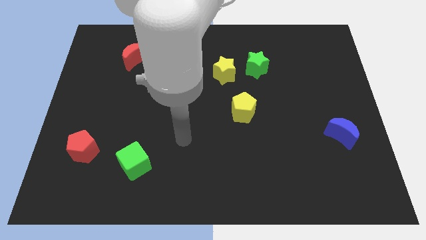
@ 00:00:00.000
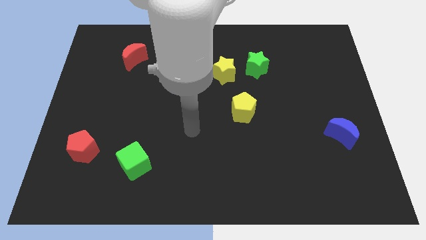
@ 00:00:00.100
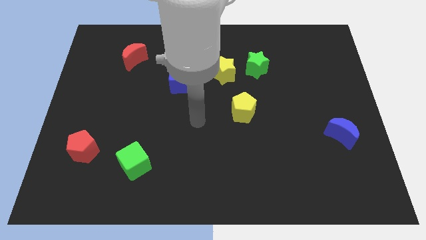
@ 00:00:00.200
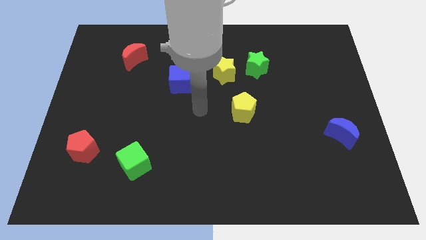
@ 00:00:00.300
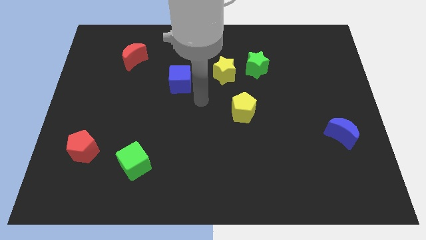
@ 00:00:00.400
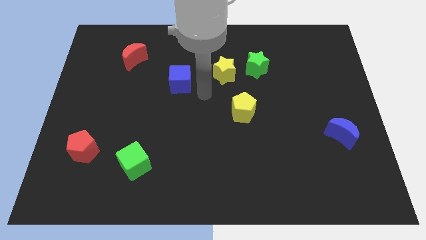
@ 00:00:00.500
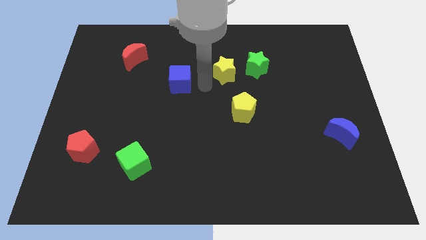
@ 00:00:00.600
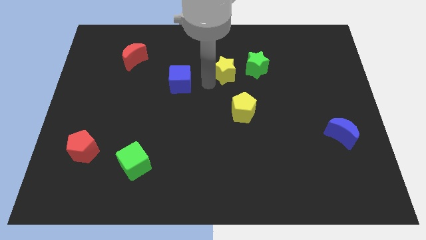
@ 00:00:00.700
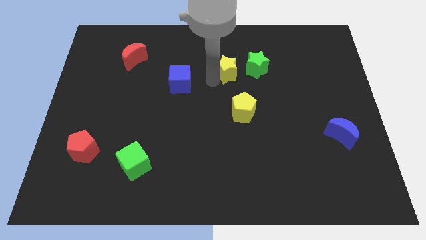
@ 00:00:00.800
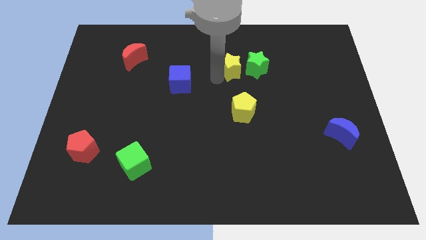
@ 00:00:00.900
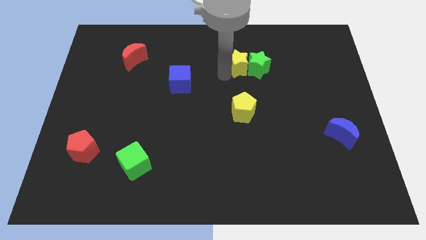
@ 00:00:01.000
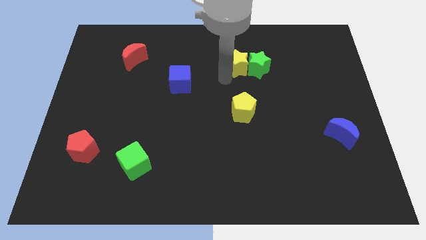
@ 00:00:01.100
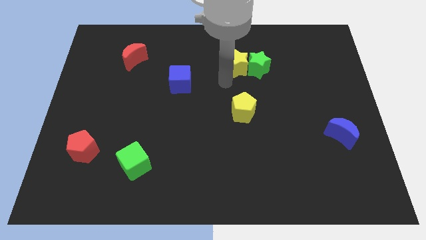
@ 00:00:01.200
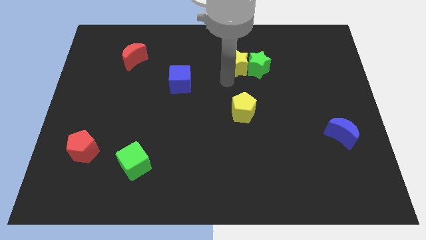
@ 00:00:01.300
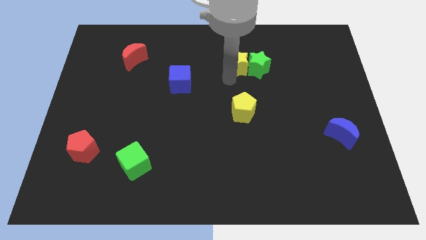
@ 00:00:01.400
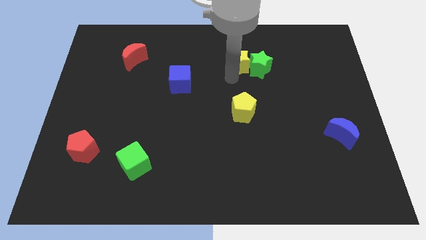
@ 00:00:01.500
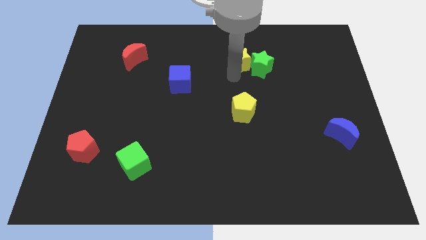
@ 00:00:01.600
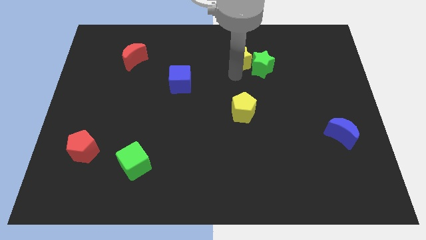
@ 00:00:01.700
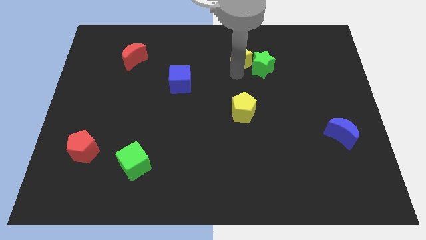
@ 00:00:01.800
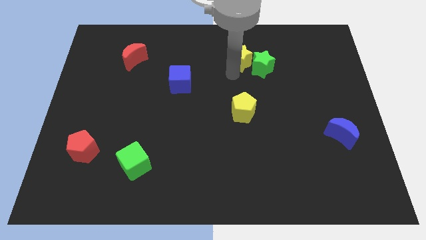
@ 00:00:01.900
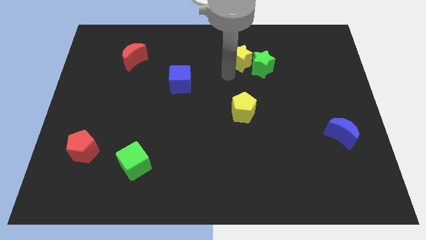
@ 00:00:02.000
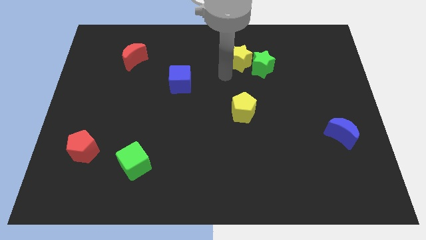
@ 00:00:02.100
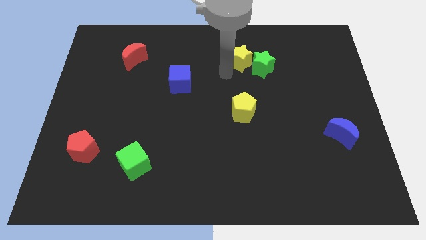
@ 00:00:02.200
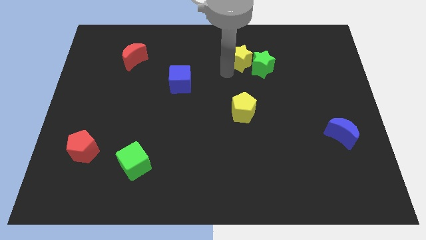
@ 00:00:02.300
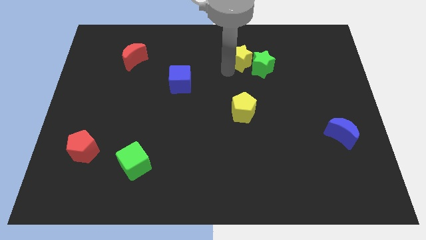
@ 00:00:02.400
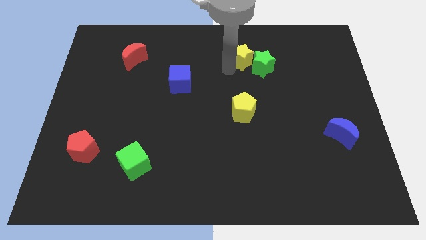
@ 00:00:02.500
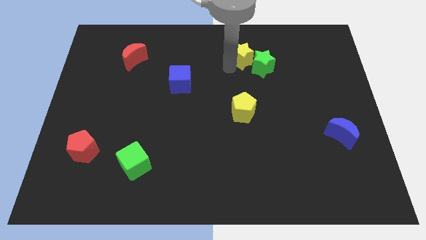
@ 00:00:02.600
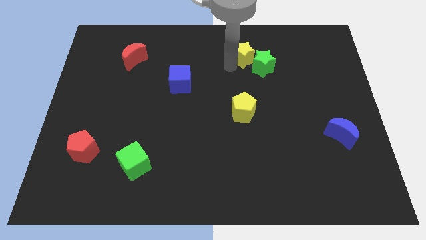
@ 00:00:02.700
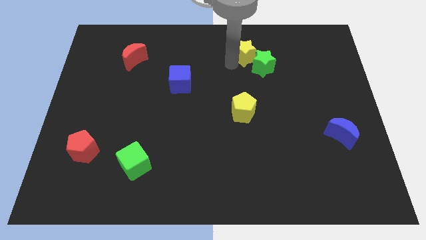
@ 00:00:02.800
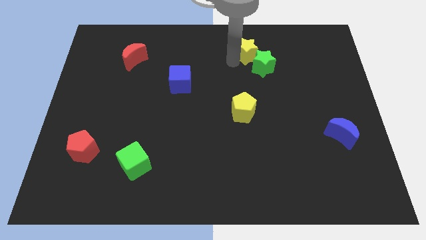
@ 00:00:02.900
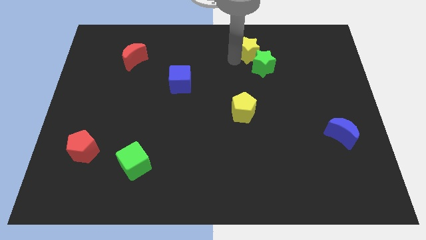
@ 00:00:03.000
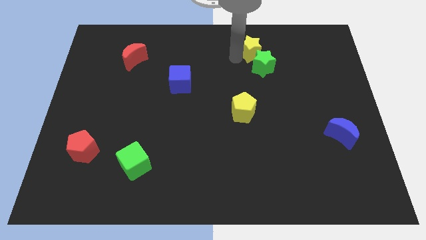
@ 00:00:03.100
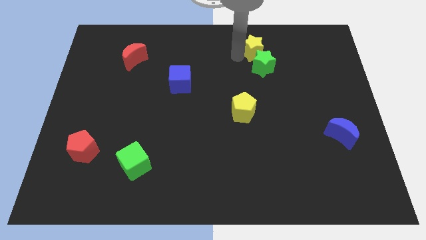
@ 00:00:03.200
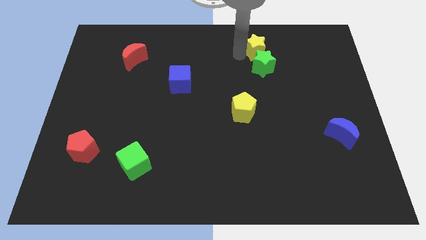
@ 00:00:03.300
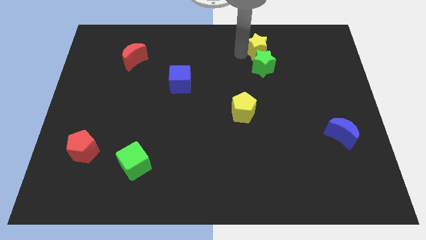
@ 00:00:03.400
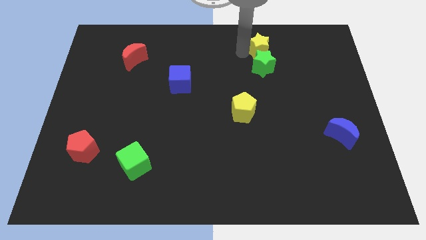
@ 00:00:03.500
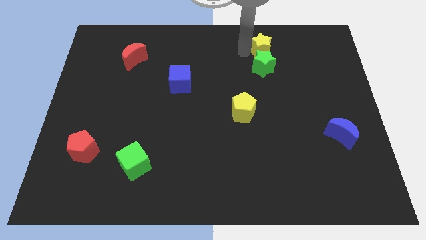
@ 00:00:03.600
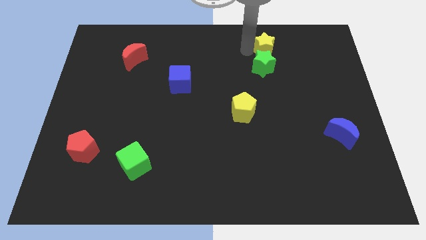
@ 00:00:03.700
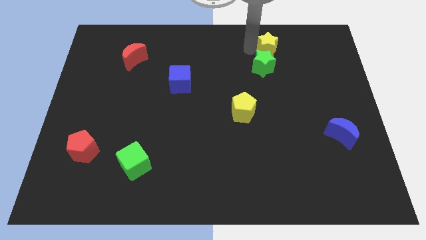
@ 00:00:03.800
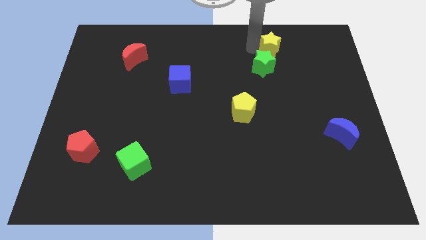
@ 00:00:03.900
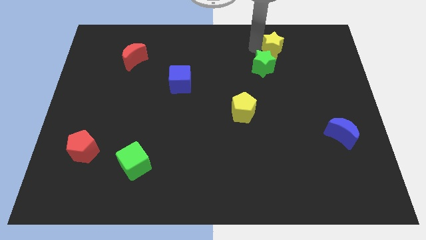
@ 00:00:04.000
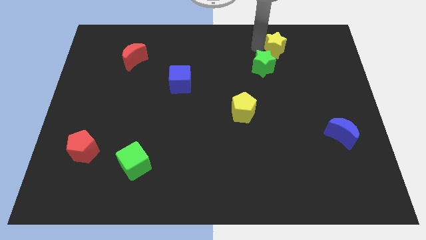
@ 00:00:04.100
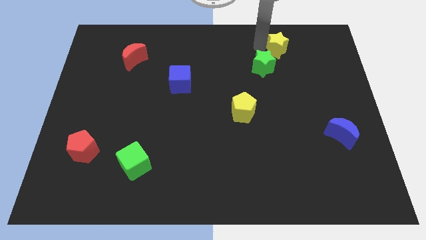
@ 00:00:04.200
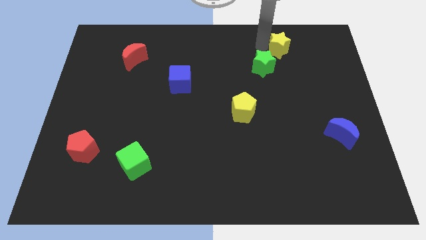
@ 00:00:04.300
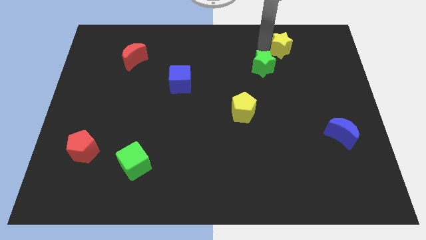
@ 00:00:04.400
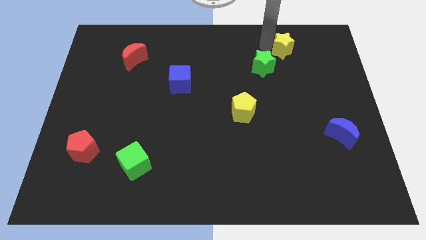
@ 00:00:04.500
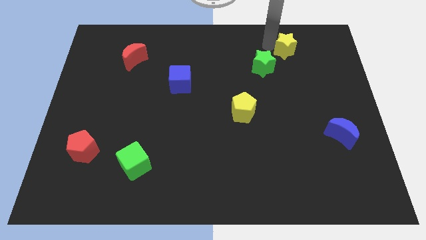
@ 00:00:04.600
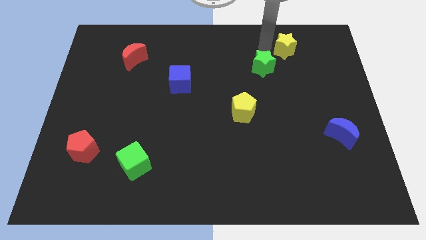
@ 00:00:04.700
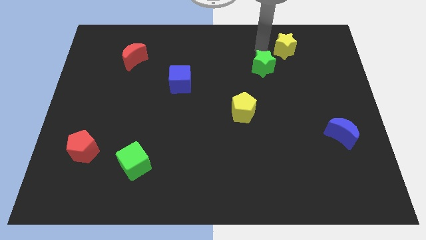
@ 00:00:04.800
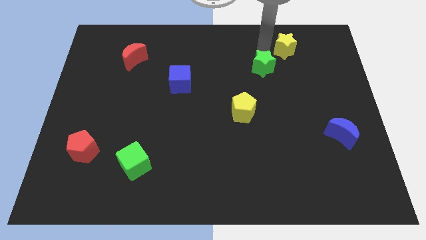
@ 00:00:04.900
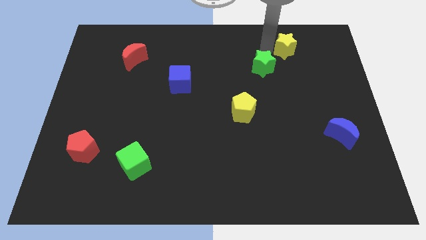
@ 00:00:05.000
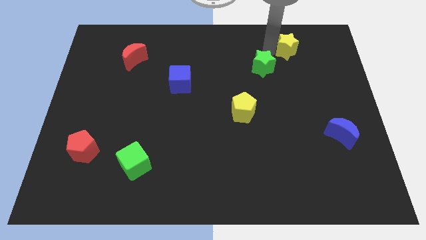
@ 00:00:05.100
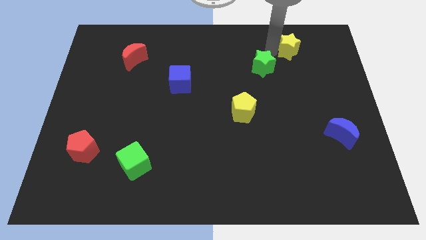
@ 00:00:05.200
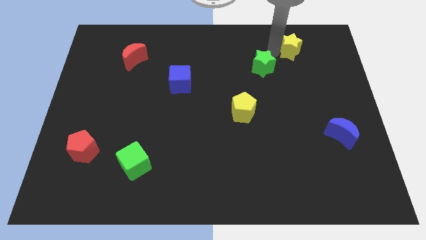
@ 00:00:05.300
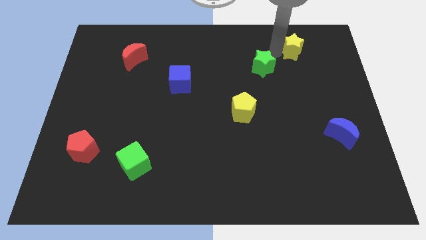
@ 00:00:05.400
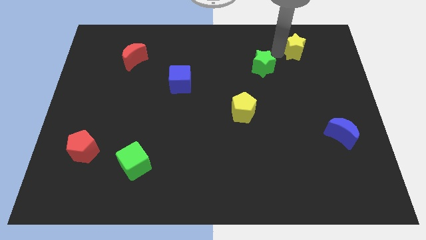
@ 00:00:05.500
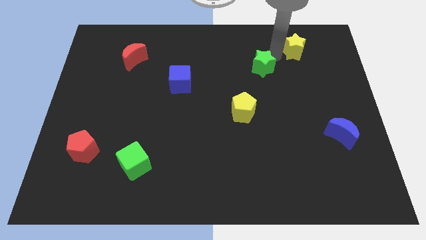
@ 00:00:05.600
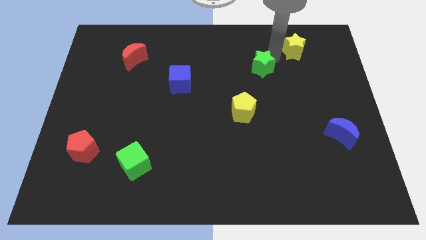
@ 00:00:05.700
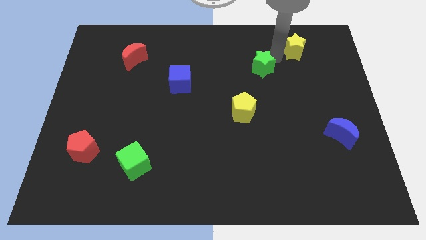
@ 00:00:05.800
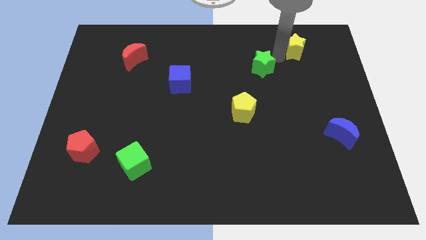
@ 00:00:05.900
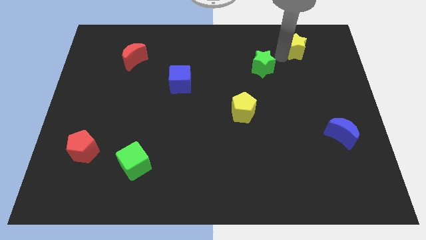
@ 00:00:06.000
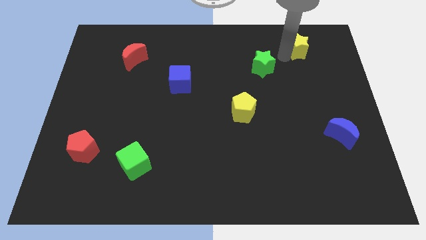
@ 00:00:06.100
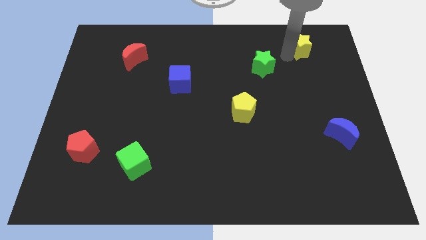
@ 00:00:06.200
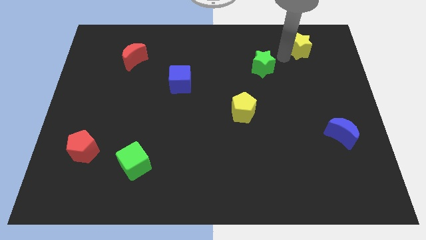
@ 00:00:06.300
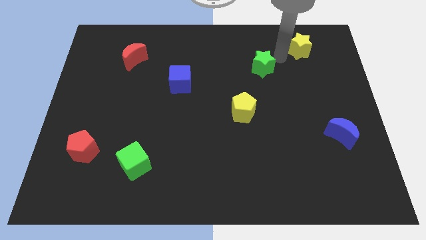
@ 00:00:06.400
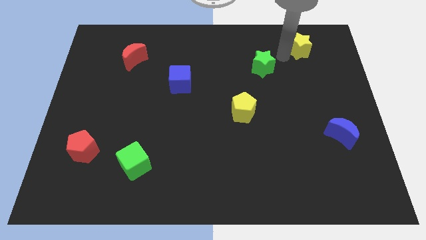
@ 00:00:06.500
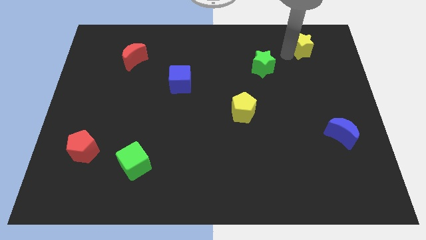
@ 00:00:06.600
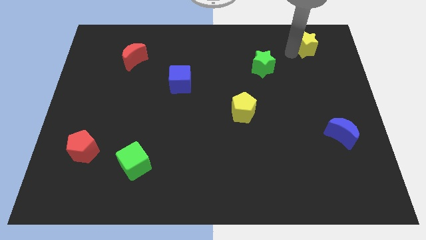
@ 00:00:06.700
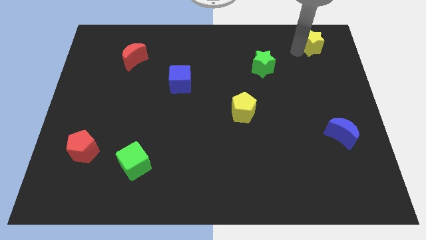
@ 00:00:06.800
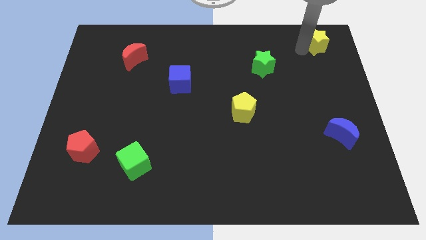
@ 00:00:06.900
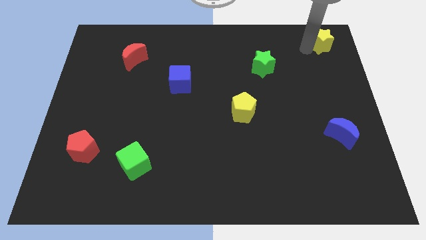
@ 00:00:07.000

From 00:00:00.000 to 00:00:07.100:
push the yellow star to the upper right corner

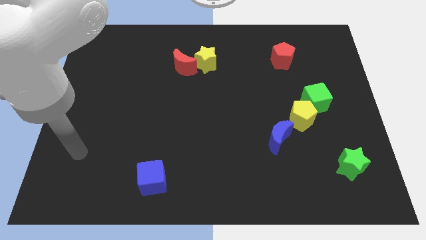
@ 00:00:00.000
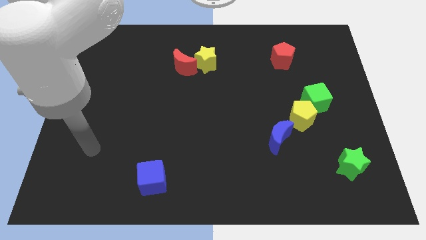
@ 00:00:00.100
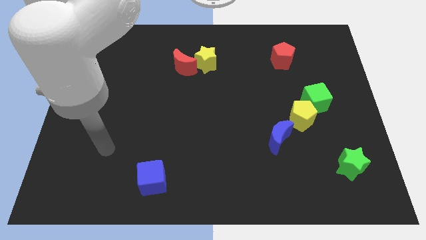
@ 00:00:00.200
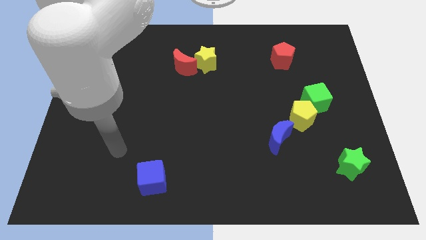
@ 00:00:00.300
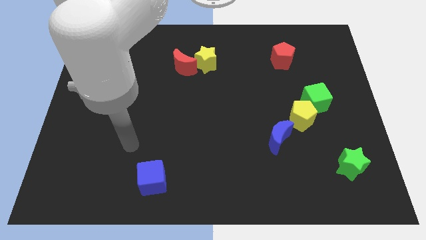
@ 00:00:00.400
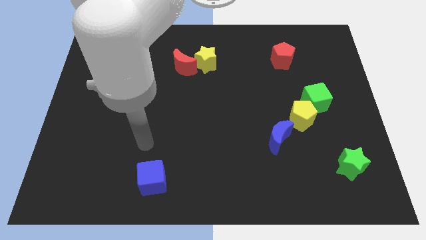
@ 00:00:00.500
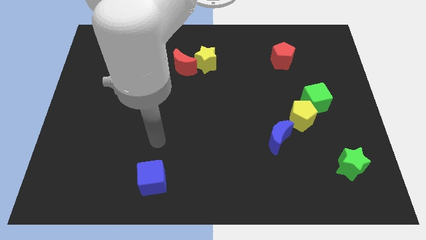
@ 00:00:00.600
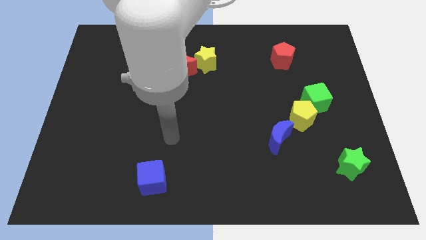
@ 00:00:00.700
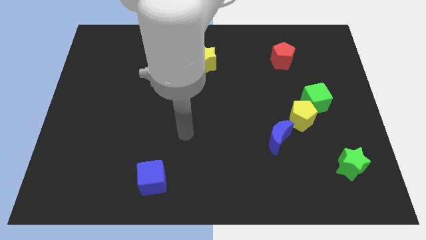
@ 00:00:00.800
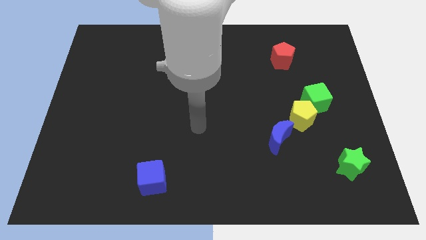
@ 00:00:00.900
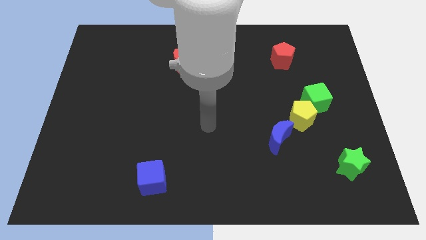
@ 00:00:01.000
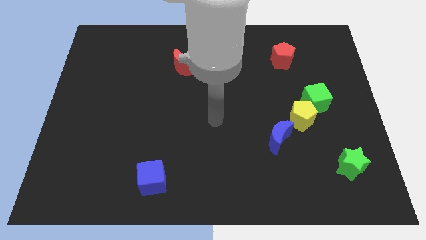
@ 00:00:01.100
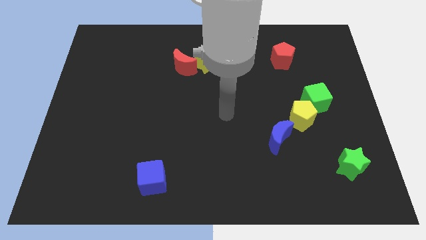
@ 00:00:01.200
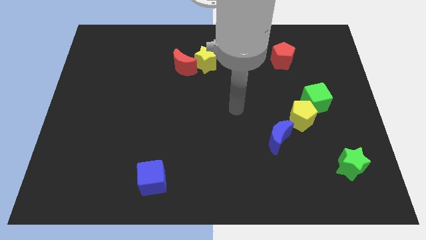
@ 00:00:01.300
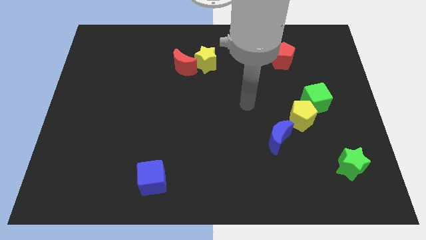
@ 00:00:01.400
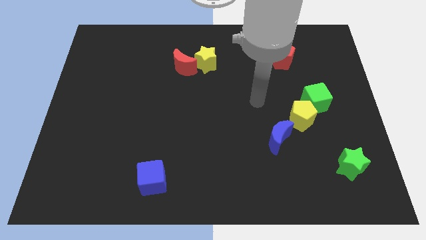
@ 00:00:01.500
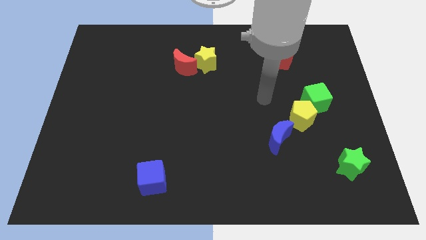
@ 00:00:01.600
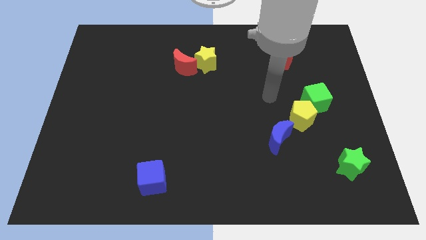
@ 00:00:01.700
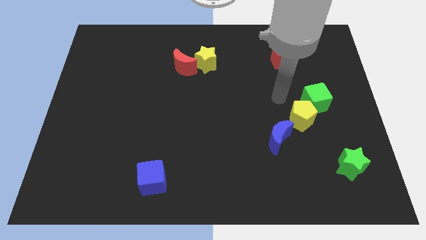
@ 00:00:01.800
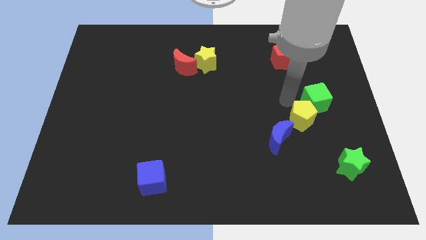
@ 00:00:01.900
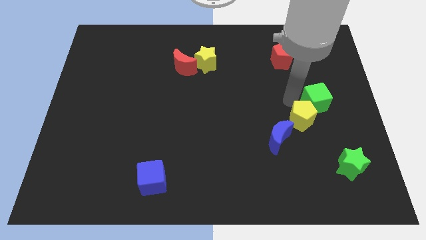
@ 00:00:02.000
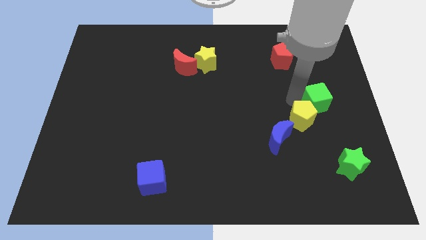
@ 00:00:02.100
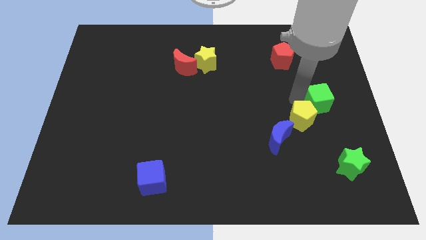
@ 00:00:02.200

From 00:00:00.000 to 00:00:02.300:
put the green cube to the right side of the board
